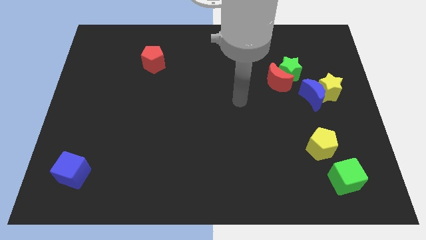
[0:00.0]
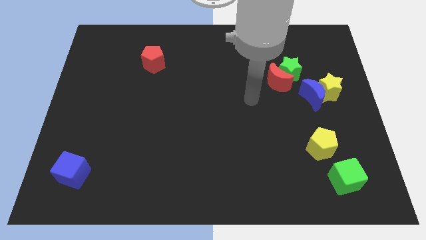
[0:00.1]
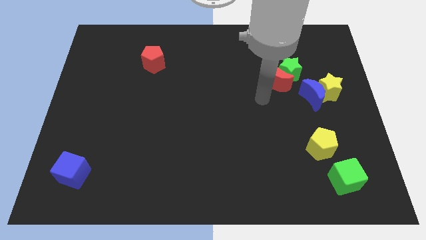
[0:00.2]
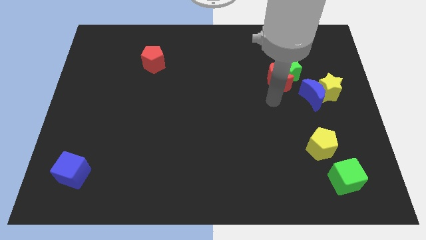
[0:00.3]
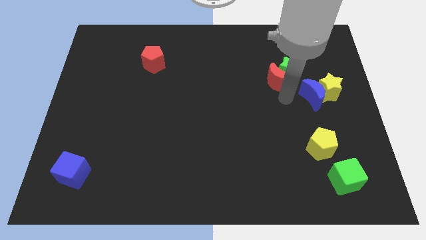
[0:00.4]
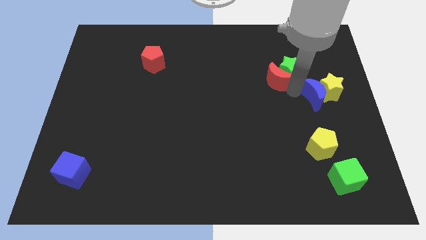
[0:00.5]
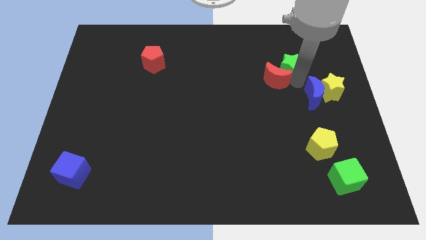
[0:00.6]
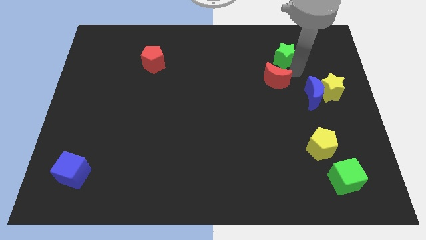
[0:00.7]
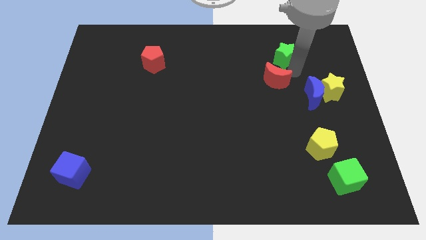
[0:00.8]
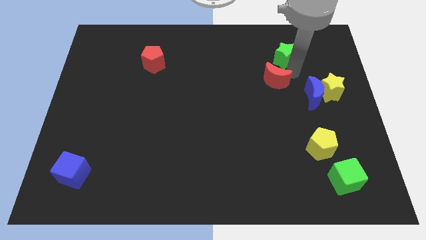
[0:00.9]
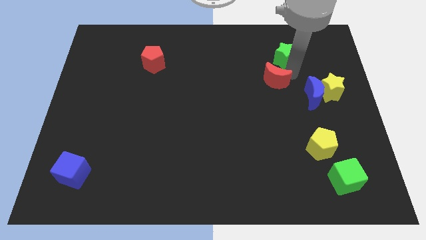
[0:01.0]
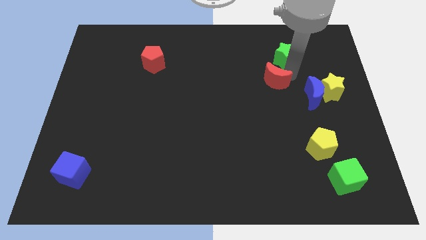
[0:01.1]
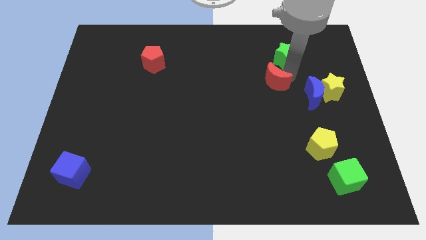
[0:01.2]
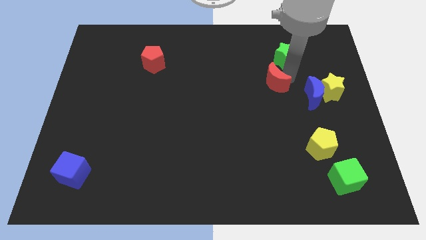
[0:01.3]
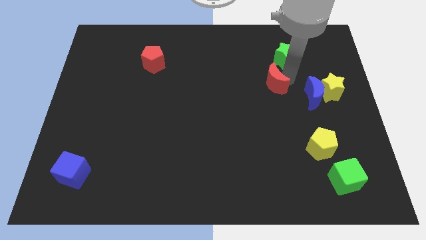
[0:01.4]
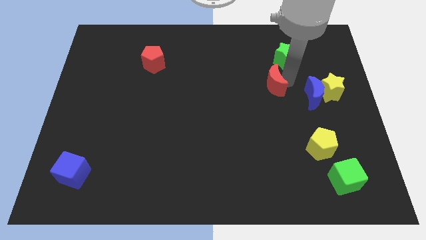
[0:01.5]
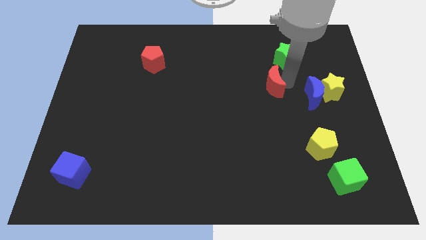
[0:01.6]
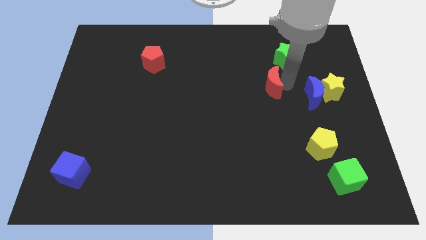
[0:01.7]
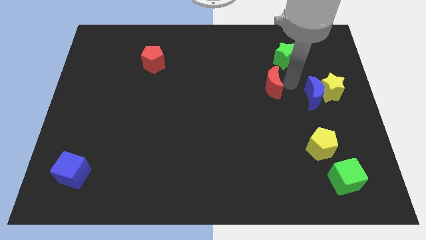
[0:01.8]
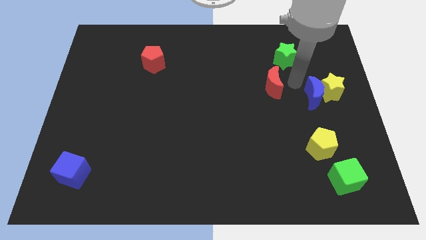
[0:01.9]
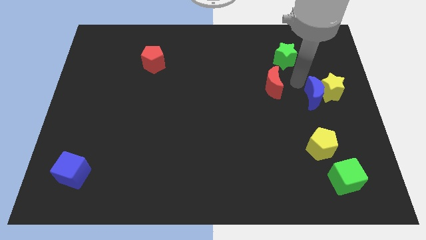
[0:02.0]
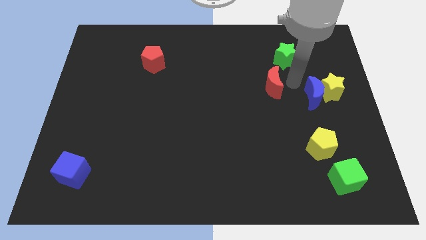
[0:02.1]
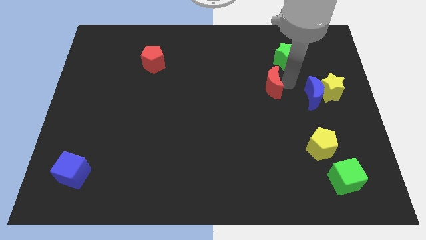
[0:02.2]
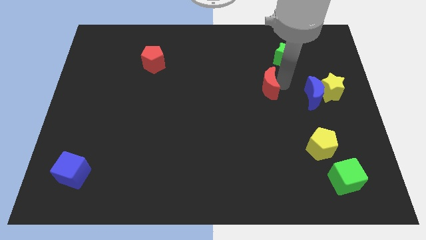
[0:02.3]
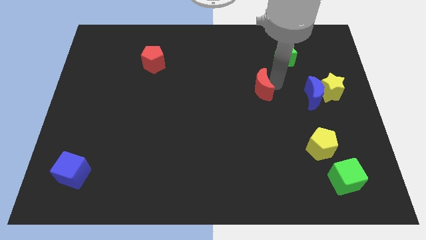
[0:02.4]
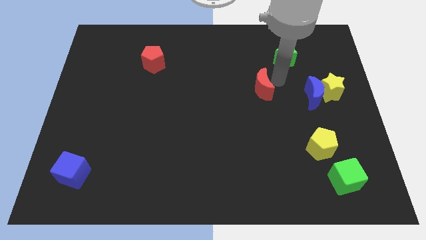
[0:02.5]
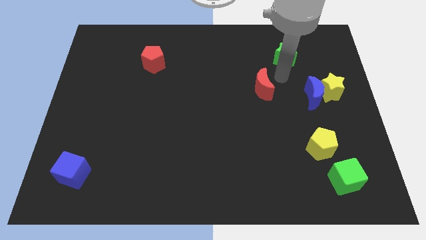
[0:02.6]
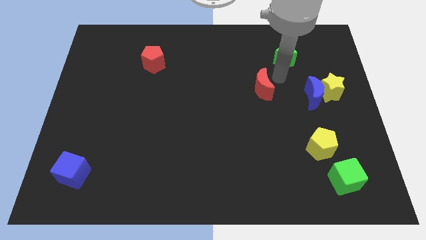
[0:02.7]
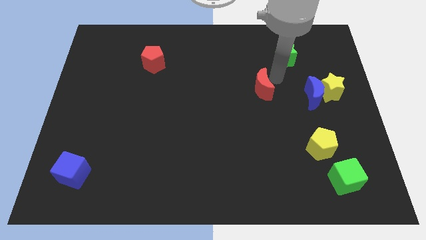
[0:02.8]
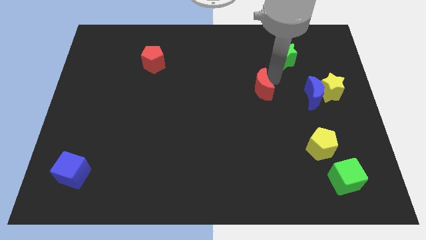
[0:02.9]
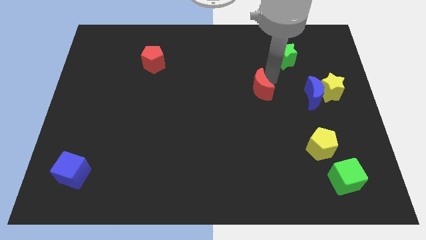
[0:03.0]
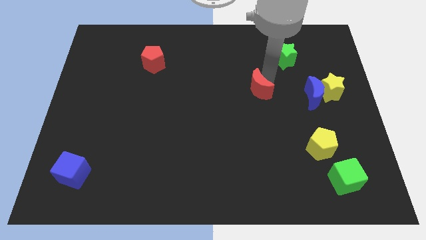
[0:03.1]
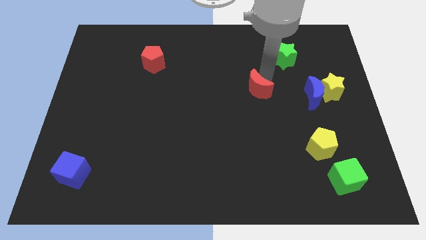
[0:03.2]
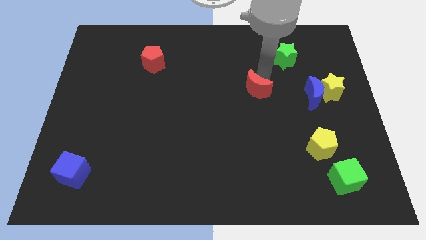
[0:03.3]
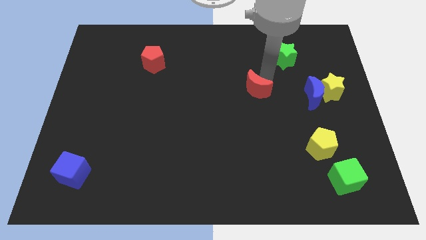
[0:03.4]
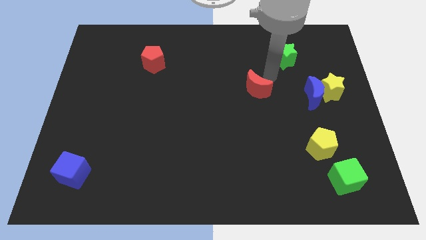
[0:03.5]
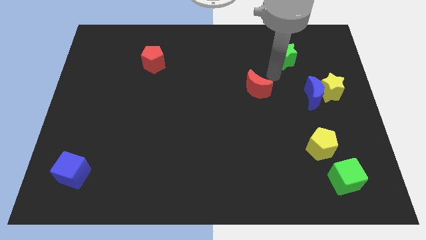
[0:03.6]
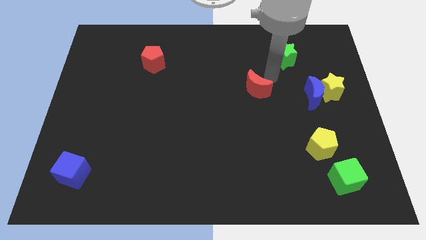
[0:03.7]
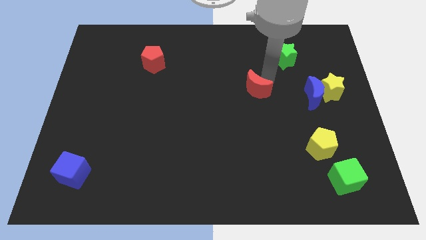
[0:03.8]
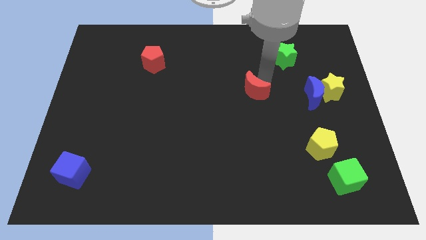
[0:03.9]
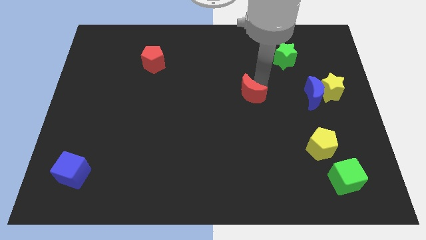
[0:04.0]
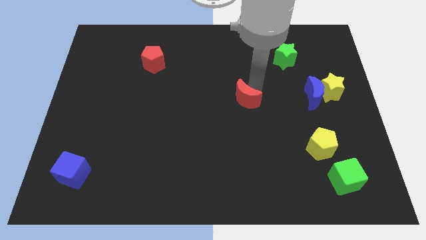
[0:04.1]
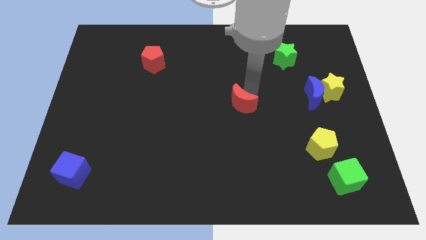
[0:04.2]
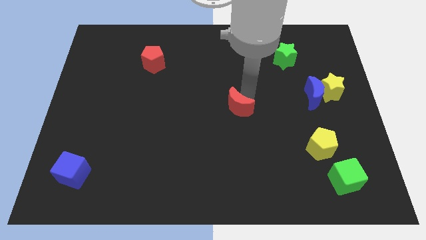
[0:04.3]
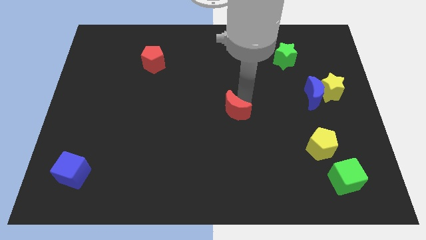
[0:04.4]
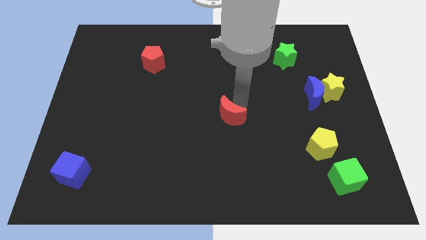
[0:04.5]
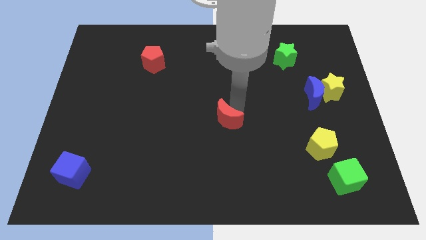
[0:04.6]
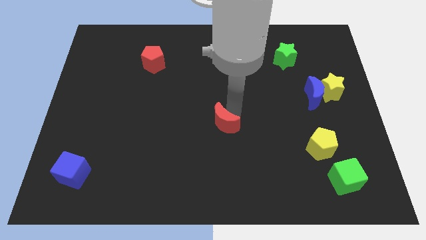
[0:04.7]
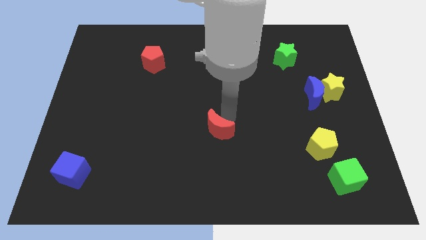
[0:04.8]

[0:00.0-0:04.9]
push the red moon down and to the left

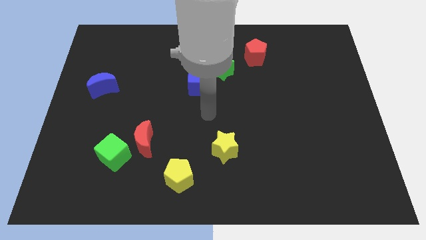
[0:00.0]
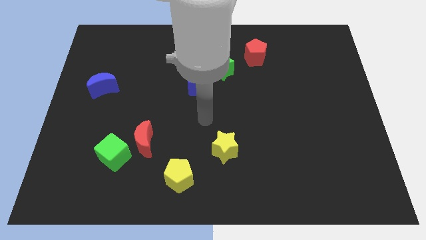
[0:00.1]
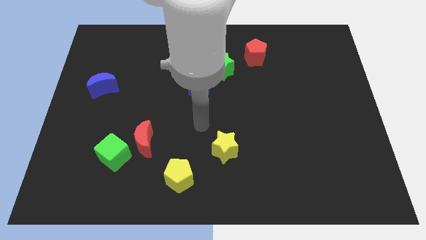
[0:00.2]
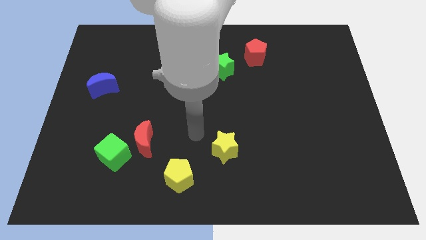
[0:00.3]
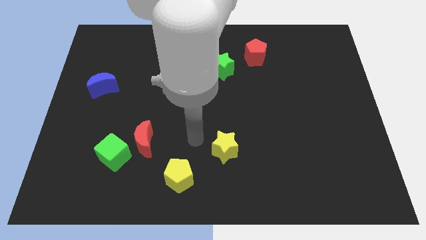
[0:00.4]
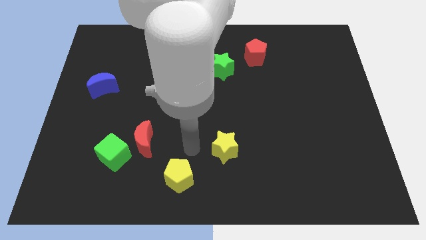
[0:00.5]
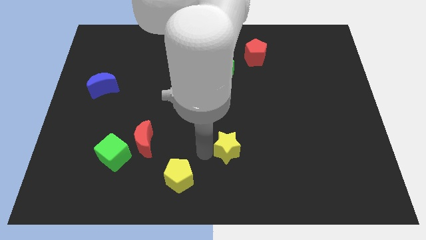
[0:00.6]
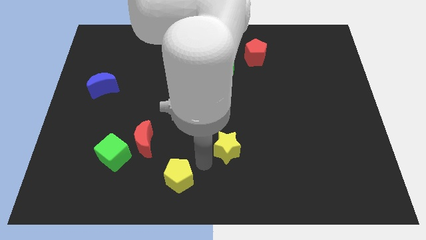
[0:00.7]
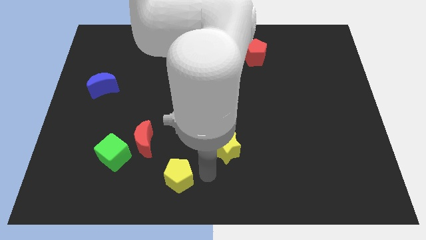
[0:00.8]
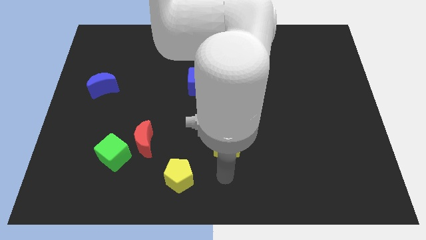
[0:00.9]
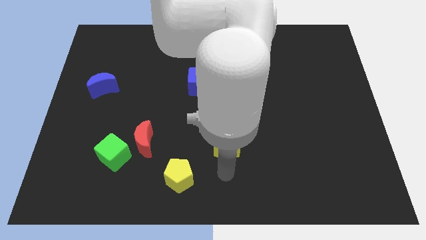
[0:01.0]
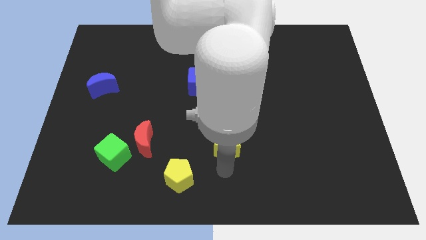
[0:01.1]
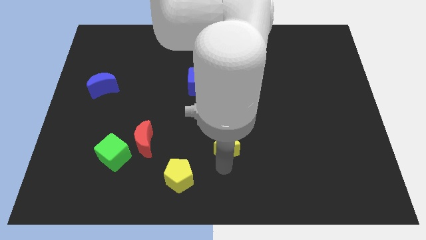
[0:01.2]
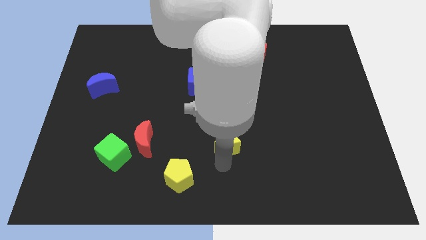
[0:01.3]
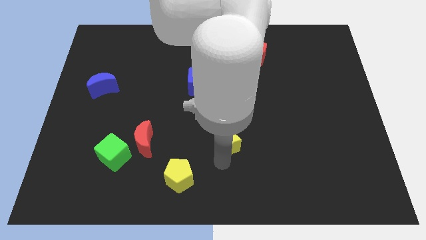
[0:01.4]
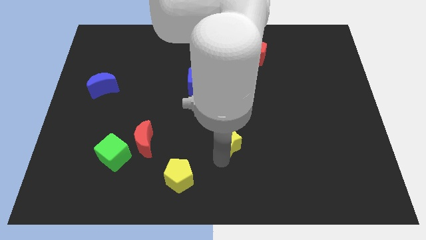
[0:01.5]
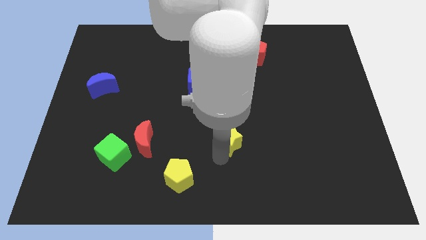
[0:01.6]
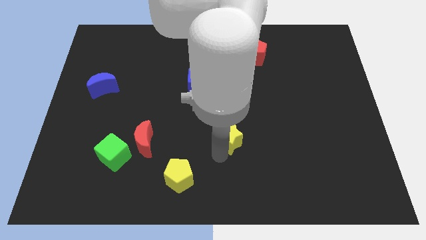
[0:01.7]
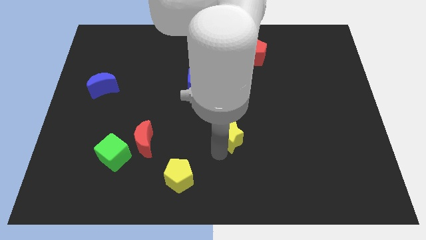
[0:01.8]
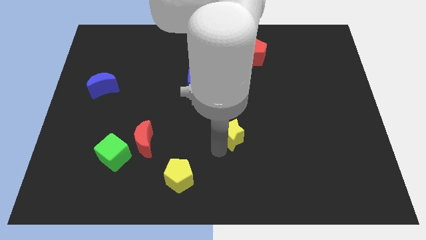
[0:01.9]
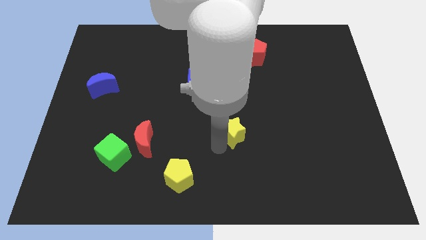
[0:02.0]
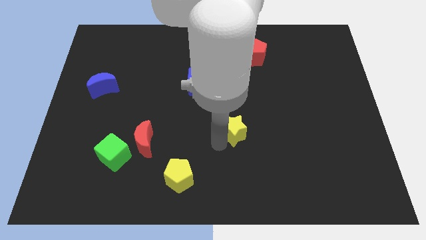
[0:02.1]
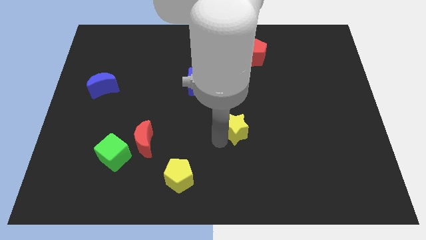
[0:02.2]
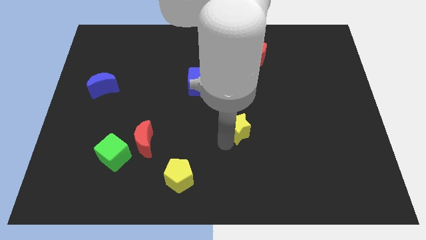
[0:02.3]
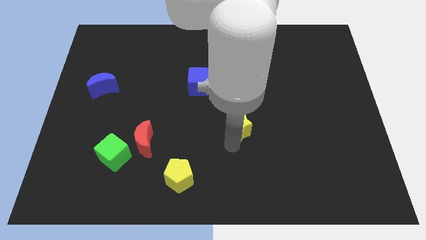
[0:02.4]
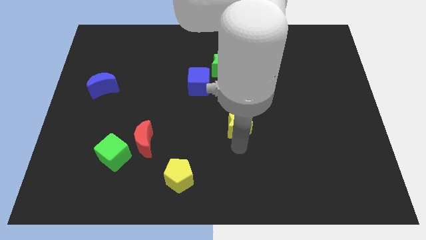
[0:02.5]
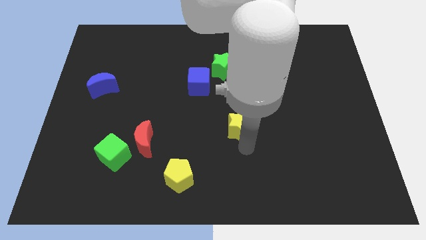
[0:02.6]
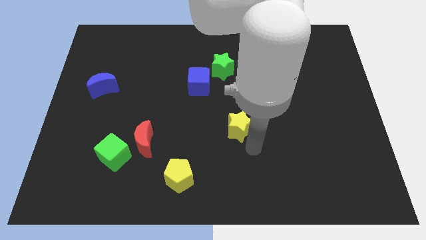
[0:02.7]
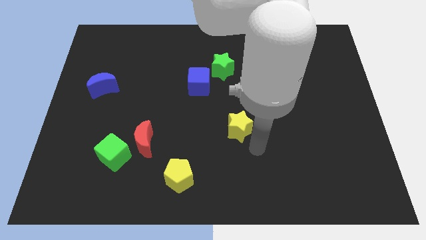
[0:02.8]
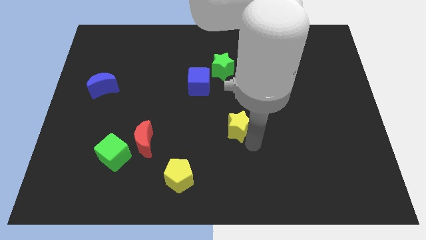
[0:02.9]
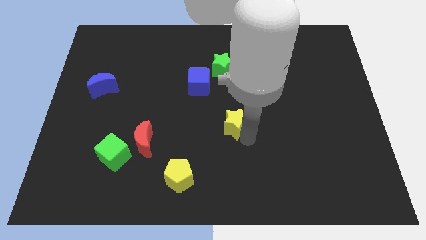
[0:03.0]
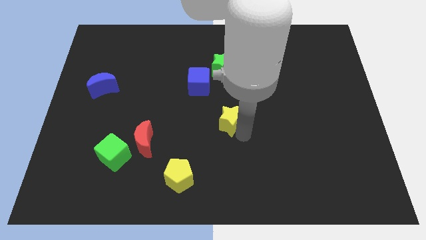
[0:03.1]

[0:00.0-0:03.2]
move the yellow star a little upwards
